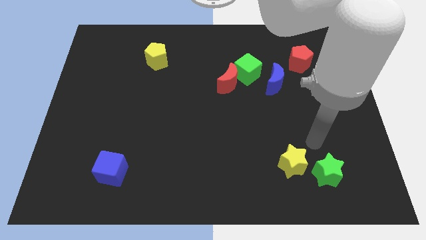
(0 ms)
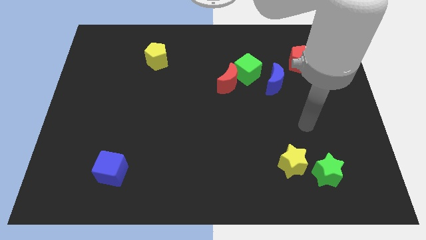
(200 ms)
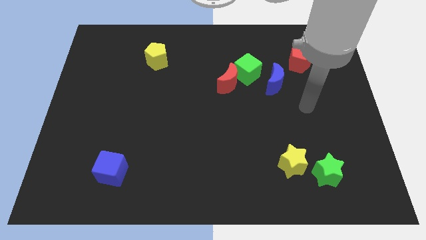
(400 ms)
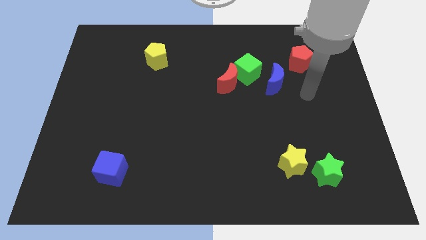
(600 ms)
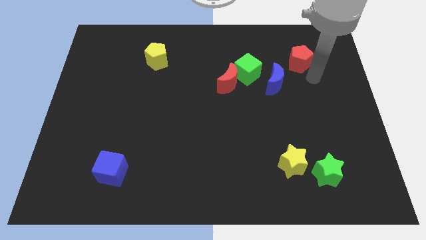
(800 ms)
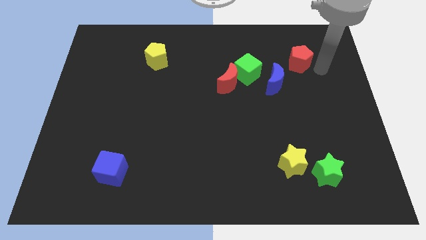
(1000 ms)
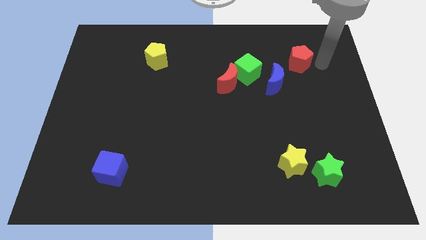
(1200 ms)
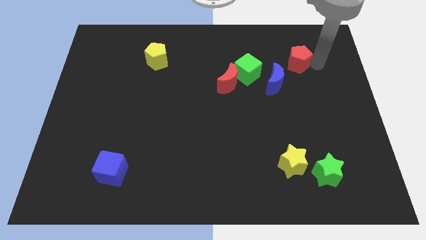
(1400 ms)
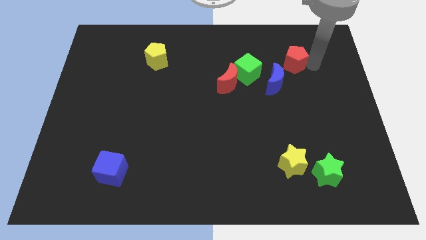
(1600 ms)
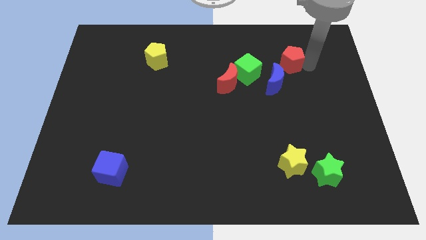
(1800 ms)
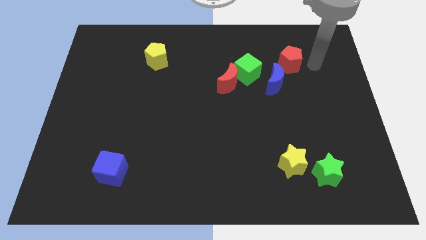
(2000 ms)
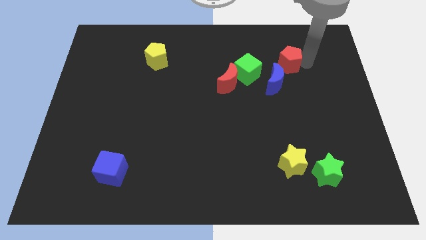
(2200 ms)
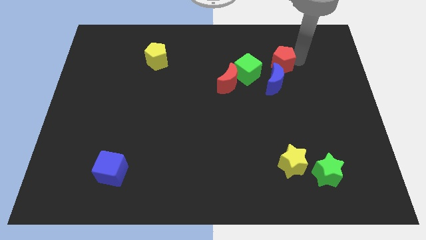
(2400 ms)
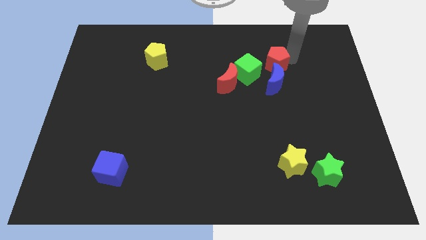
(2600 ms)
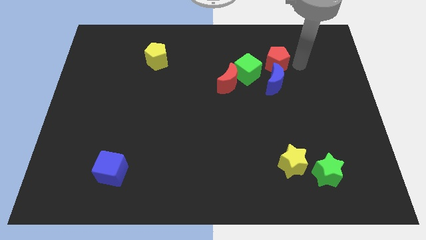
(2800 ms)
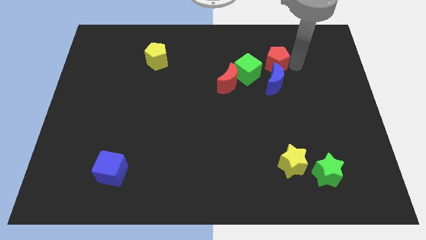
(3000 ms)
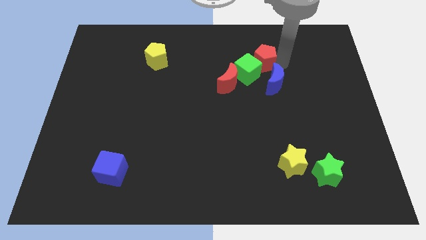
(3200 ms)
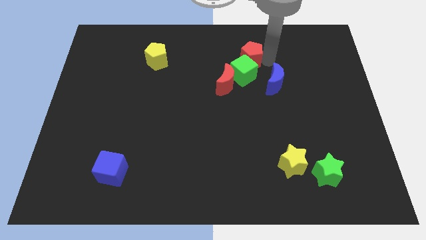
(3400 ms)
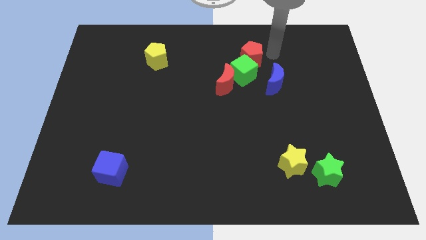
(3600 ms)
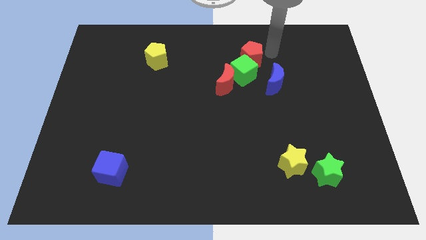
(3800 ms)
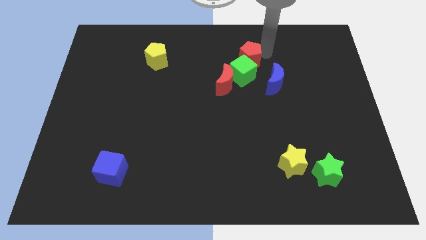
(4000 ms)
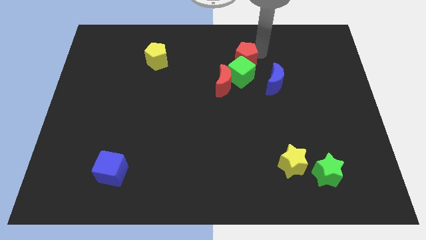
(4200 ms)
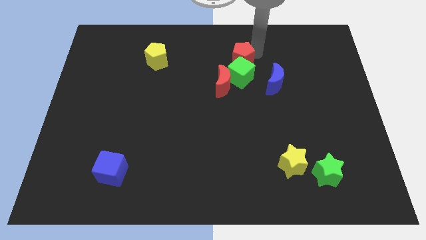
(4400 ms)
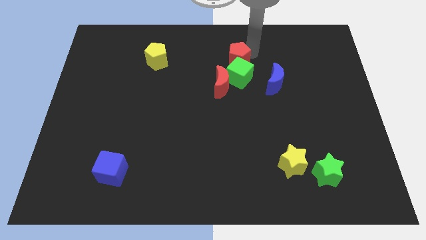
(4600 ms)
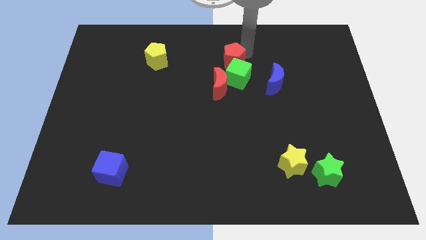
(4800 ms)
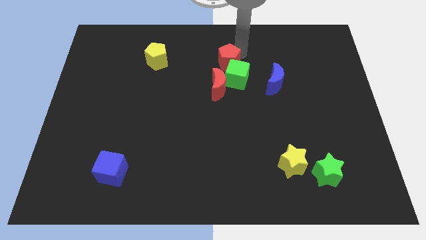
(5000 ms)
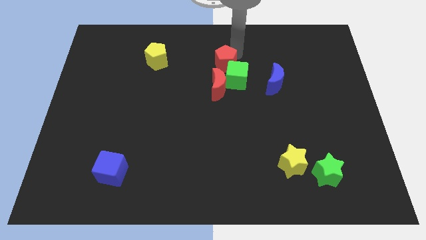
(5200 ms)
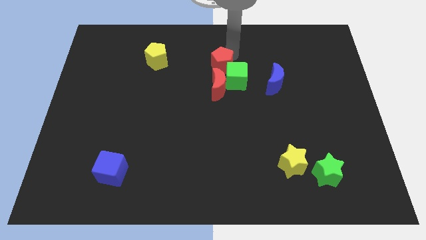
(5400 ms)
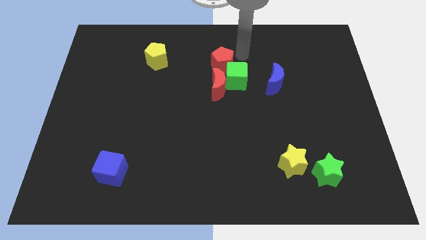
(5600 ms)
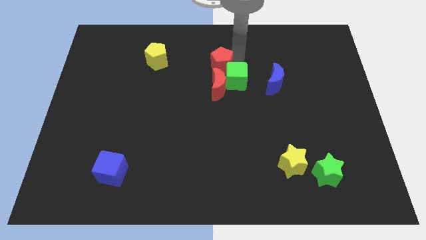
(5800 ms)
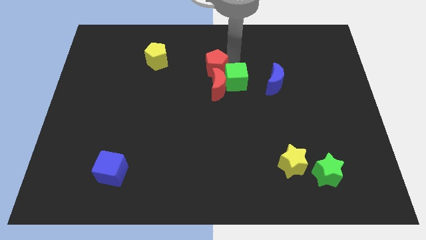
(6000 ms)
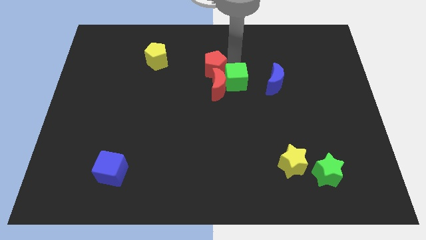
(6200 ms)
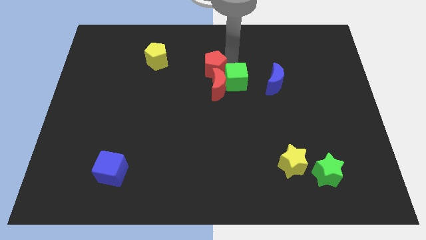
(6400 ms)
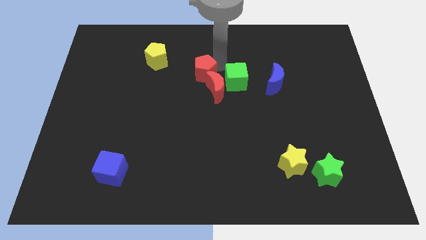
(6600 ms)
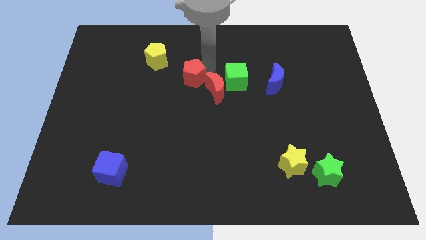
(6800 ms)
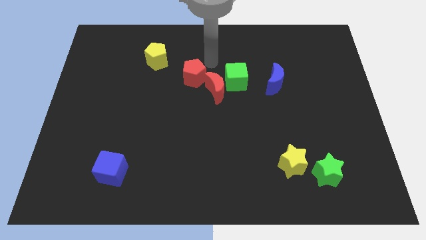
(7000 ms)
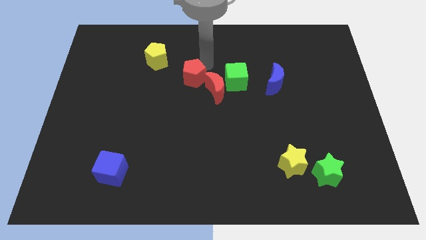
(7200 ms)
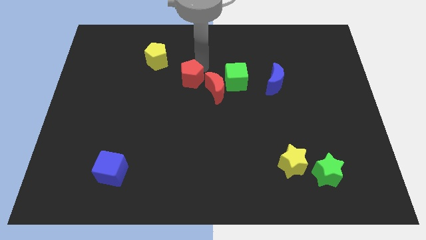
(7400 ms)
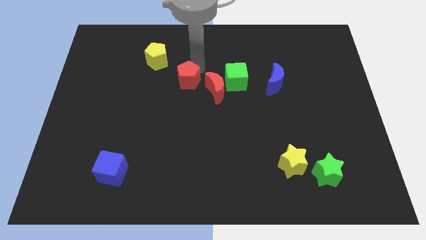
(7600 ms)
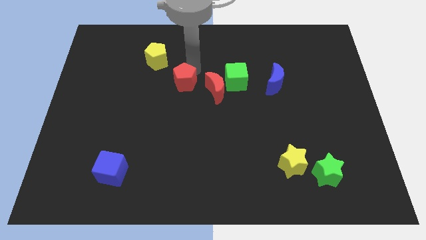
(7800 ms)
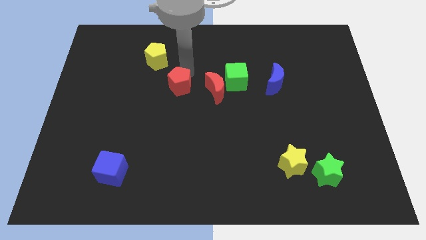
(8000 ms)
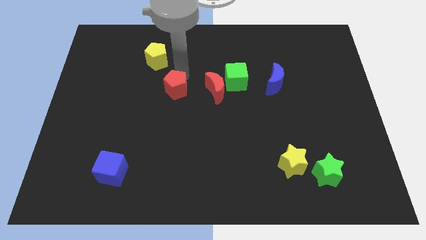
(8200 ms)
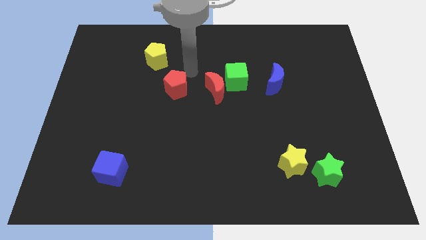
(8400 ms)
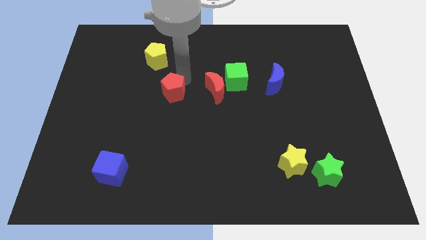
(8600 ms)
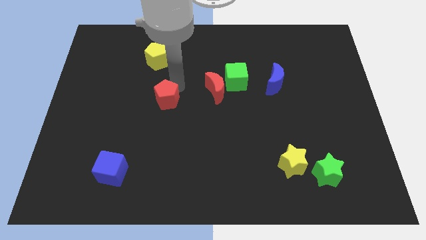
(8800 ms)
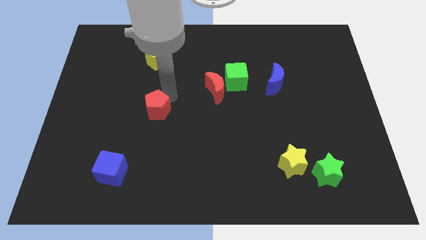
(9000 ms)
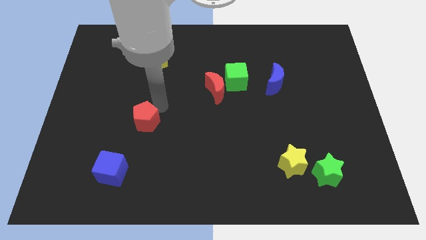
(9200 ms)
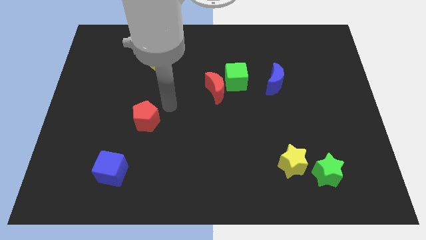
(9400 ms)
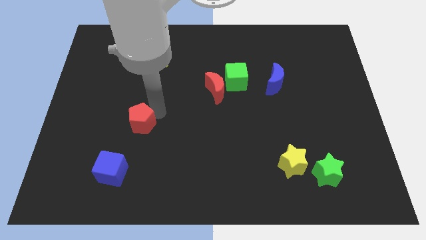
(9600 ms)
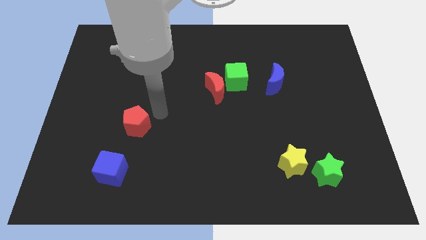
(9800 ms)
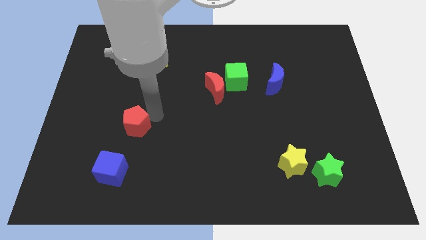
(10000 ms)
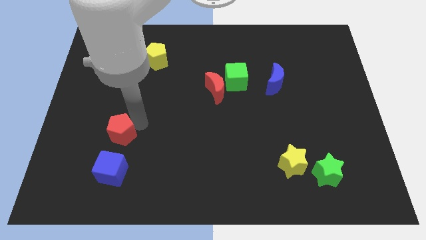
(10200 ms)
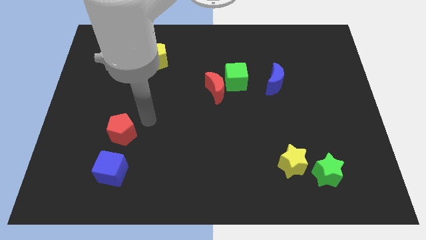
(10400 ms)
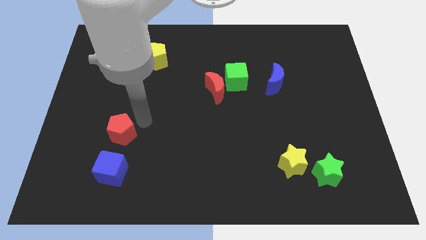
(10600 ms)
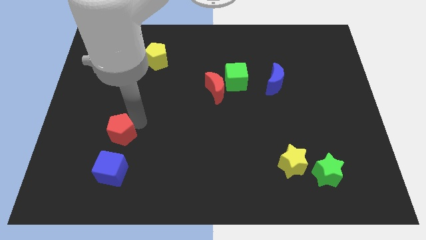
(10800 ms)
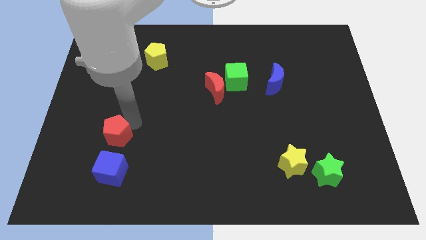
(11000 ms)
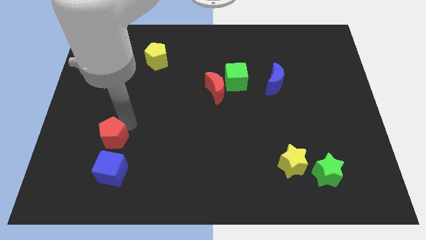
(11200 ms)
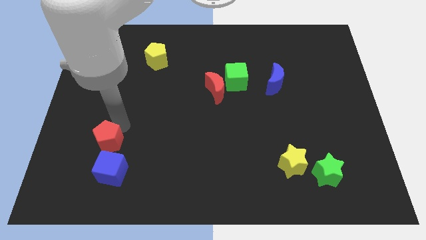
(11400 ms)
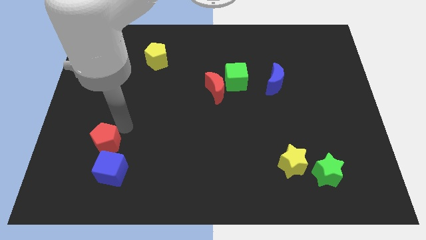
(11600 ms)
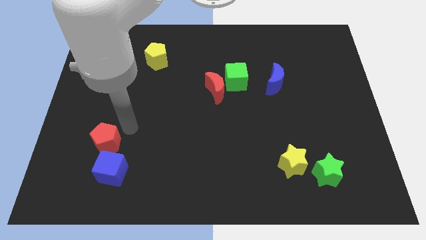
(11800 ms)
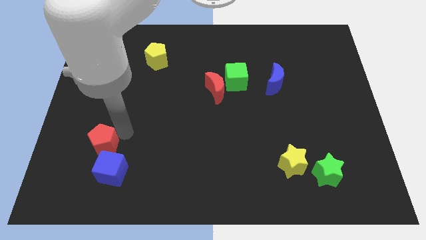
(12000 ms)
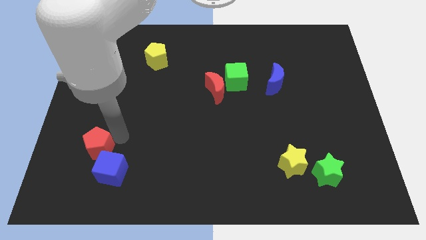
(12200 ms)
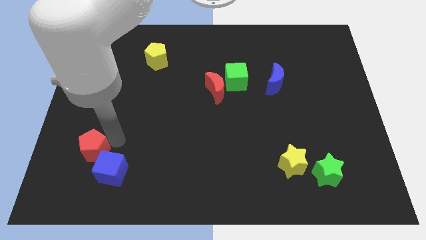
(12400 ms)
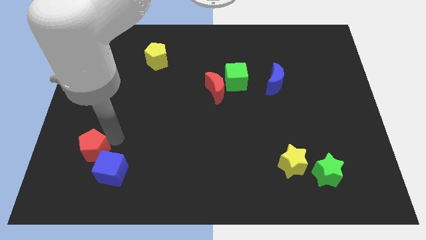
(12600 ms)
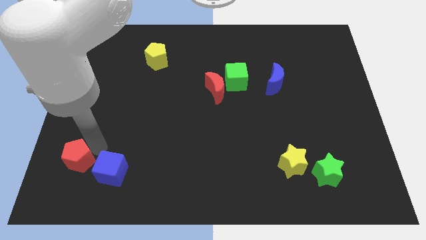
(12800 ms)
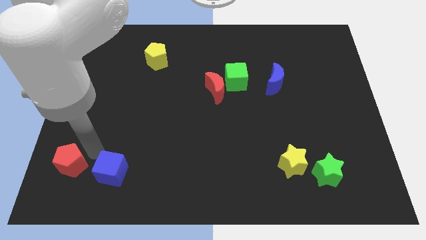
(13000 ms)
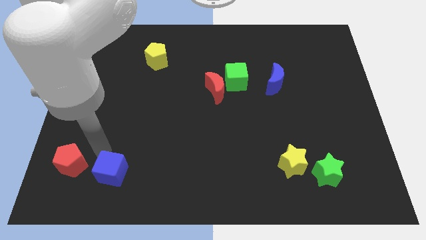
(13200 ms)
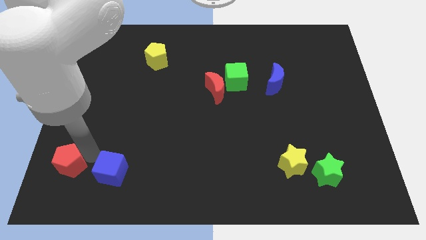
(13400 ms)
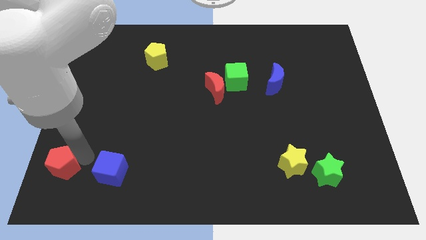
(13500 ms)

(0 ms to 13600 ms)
push the red pentagon to the bottom left

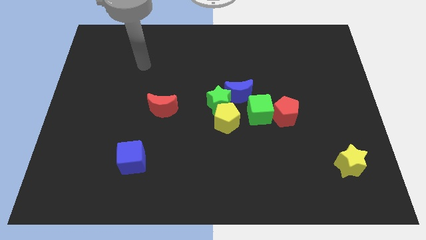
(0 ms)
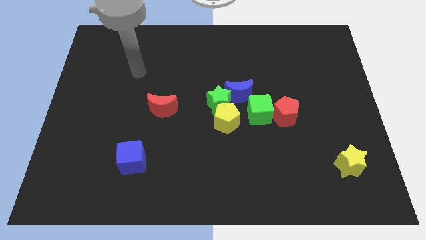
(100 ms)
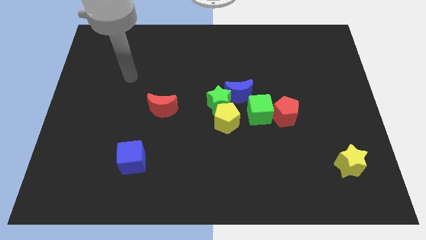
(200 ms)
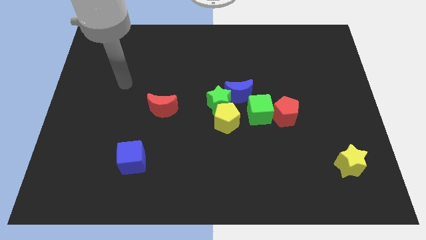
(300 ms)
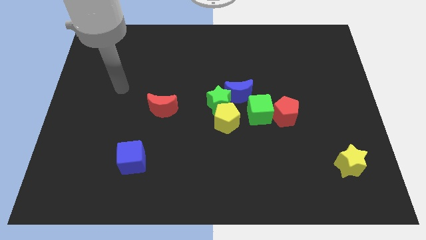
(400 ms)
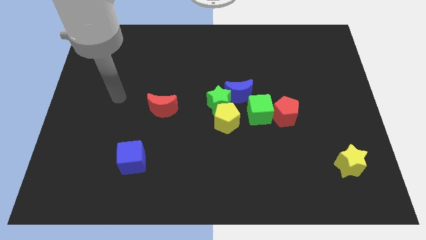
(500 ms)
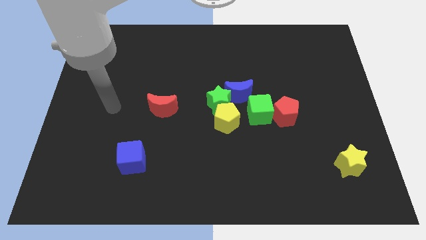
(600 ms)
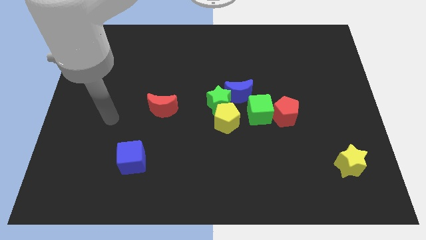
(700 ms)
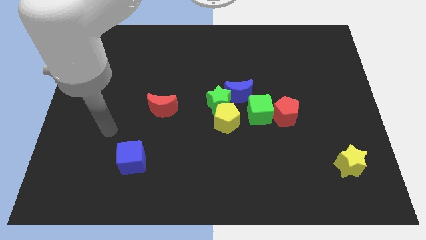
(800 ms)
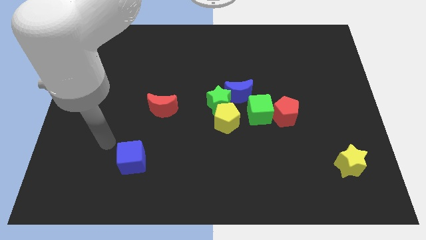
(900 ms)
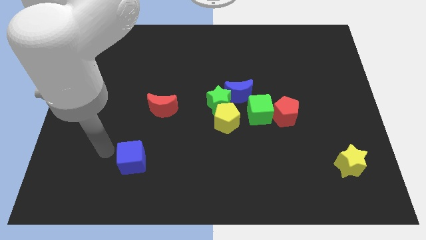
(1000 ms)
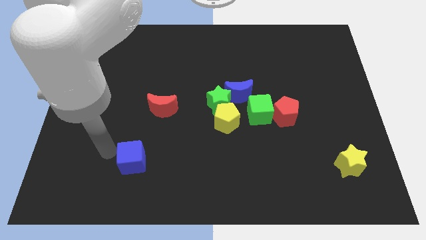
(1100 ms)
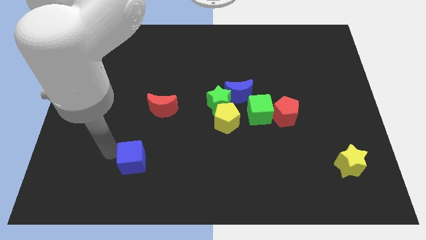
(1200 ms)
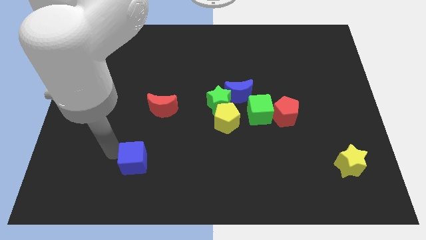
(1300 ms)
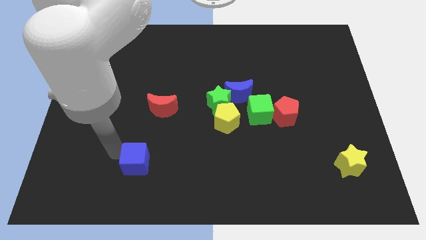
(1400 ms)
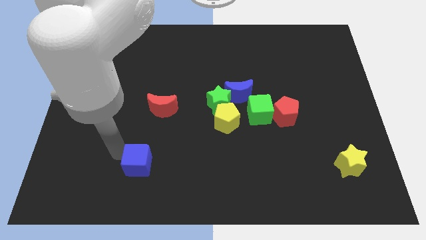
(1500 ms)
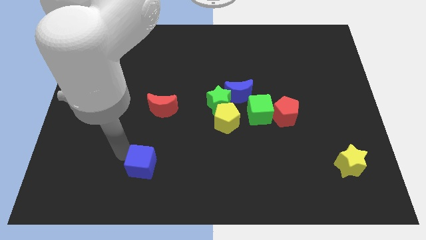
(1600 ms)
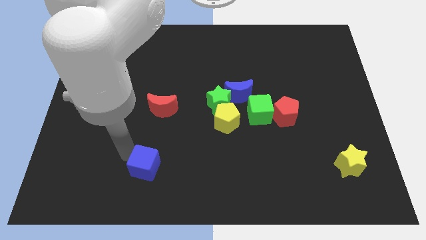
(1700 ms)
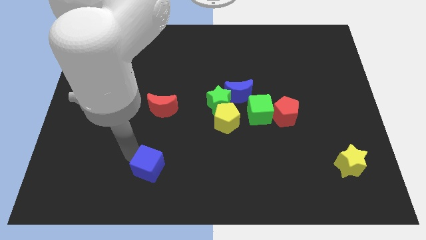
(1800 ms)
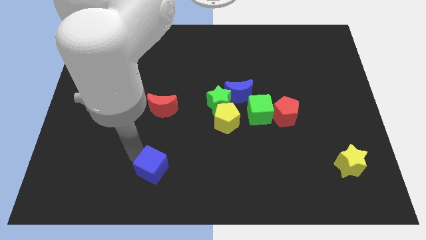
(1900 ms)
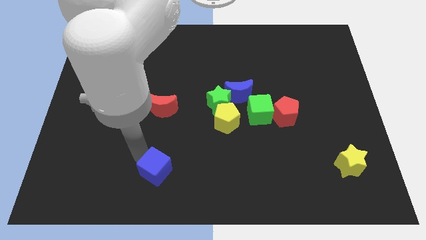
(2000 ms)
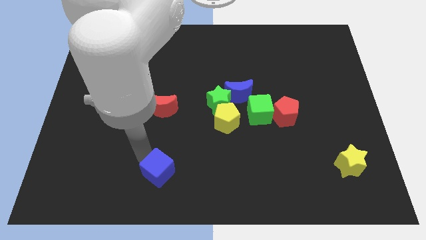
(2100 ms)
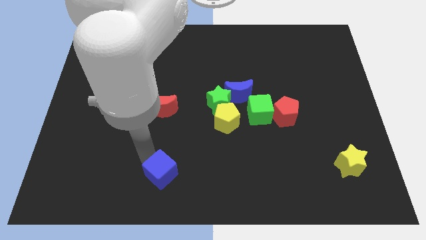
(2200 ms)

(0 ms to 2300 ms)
put the blue cube to the bottom
